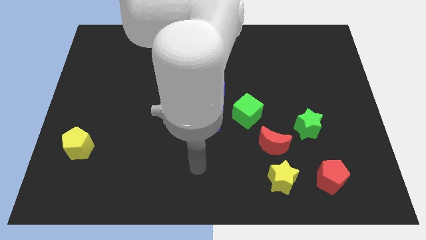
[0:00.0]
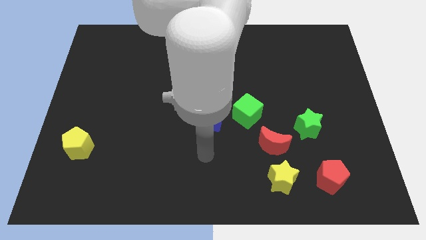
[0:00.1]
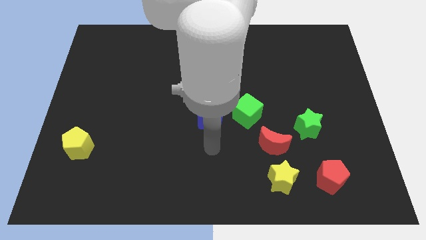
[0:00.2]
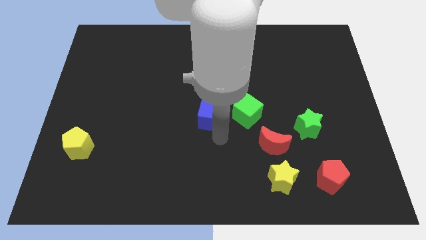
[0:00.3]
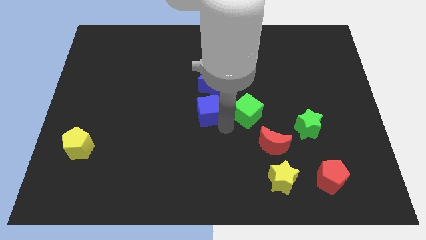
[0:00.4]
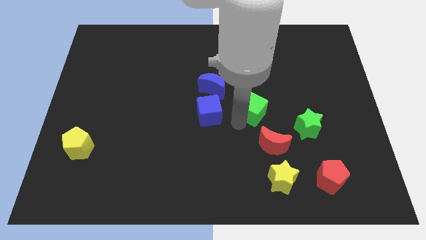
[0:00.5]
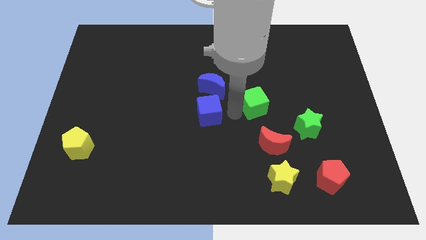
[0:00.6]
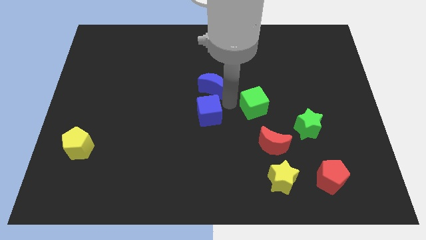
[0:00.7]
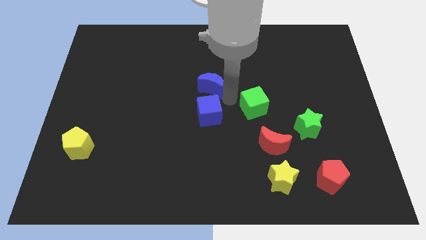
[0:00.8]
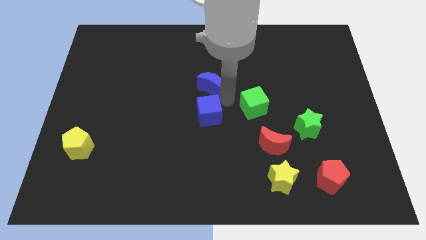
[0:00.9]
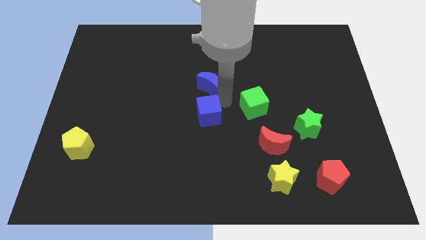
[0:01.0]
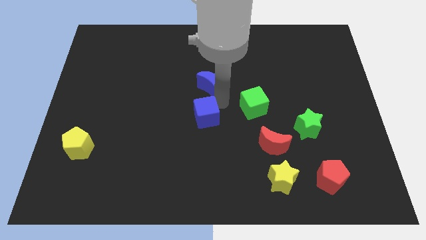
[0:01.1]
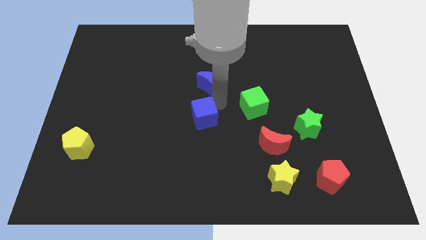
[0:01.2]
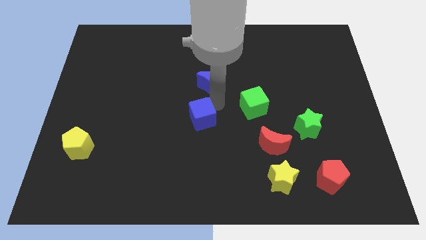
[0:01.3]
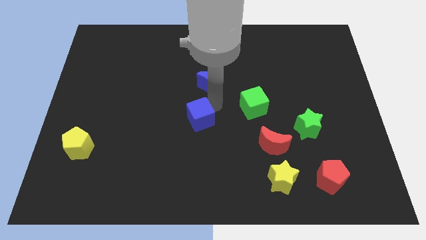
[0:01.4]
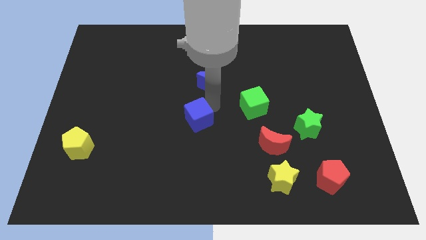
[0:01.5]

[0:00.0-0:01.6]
pull the blue cube apart from the green cube and blue moon

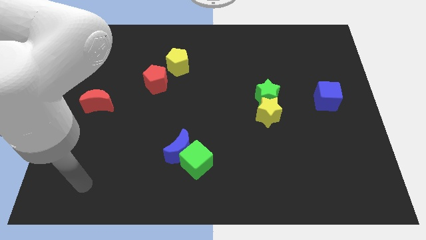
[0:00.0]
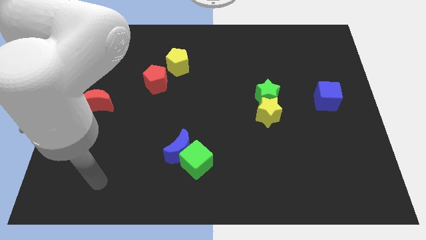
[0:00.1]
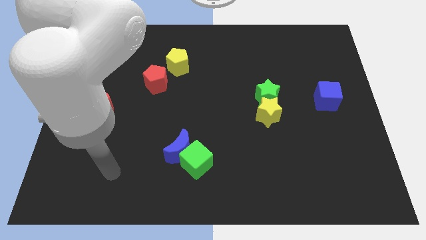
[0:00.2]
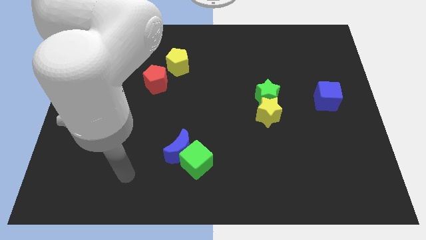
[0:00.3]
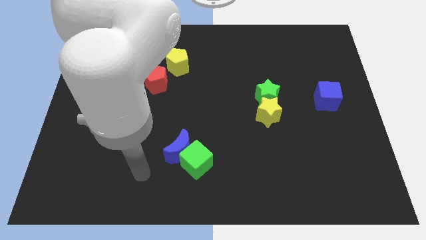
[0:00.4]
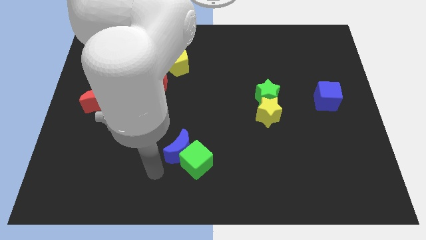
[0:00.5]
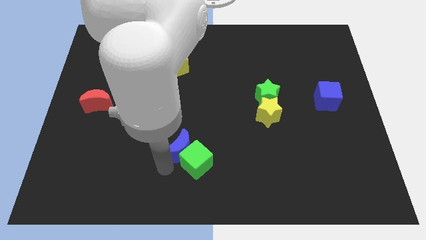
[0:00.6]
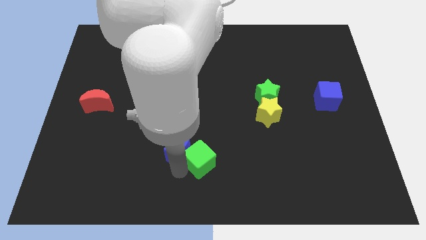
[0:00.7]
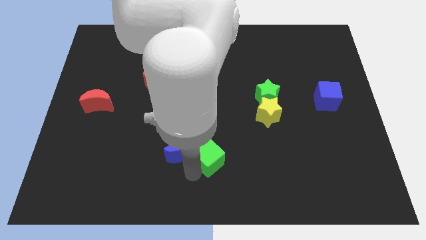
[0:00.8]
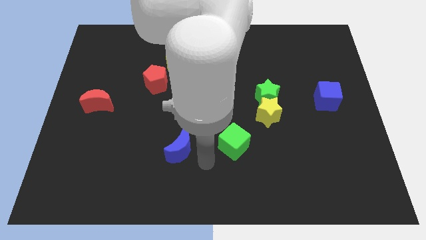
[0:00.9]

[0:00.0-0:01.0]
move the blue moon away from the green cube

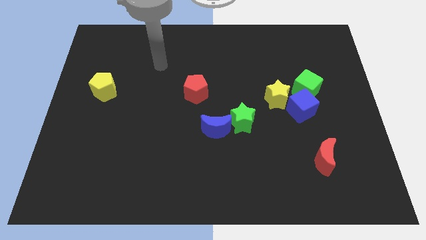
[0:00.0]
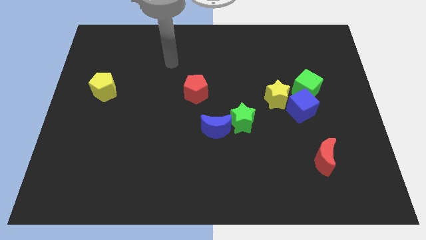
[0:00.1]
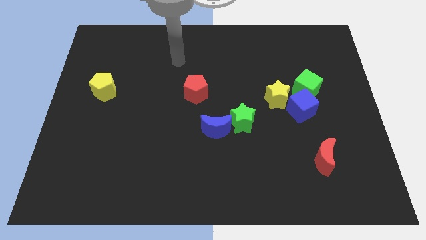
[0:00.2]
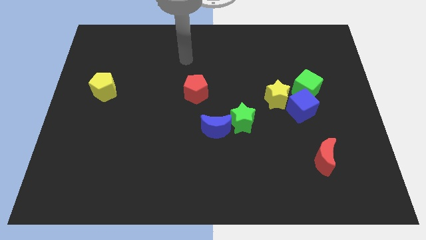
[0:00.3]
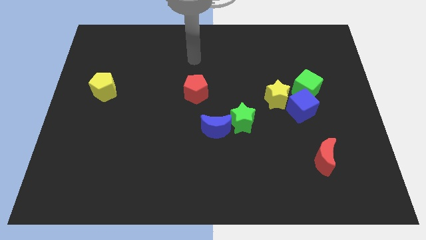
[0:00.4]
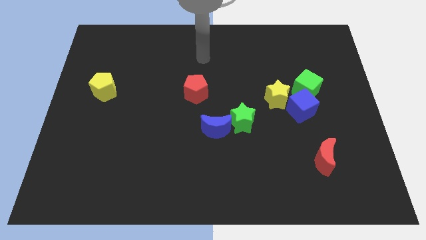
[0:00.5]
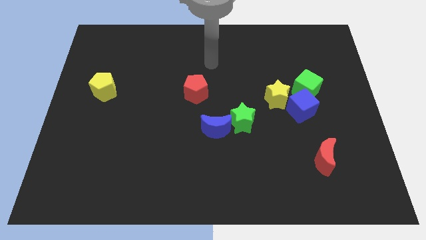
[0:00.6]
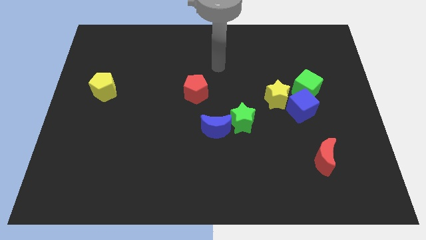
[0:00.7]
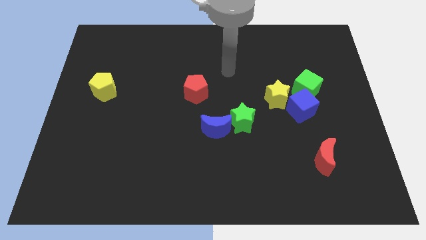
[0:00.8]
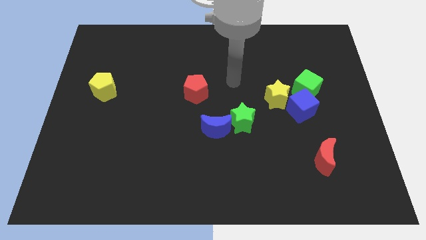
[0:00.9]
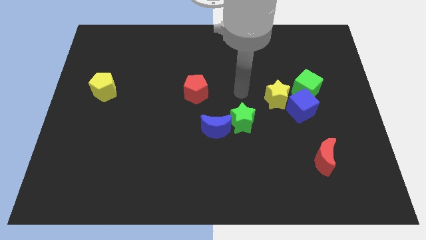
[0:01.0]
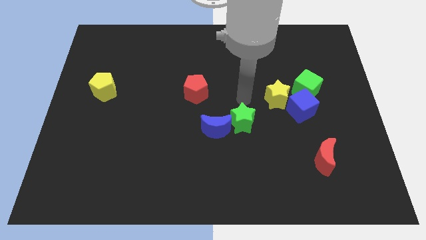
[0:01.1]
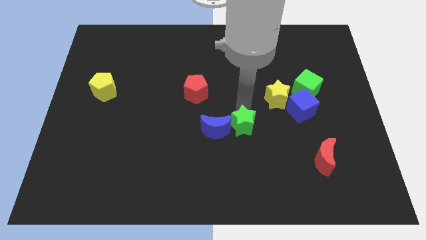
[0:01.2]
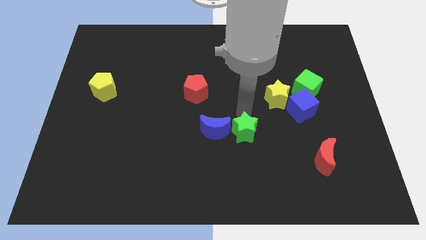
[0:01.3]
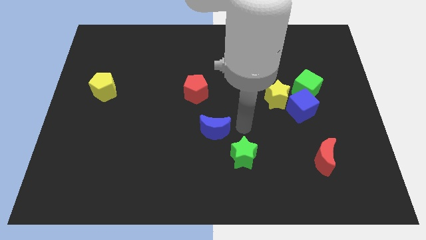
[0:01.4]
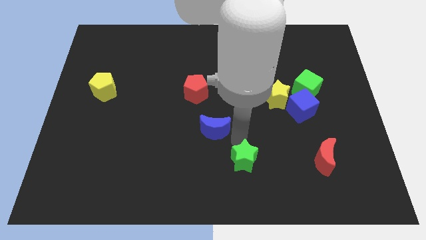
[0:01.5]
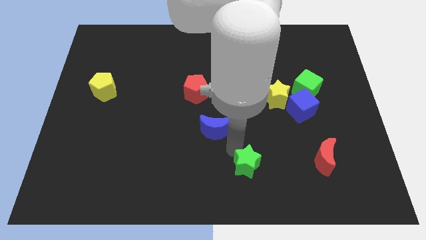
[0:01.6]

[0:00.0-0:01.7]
pull the blue moon apart from the green star

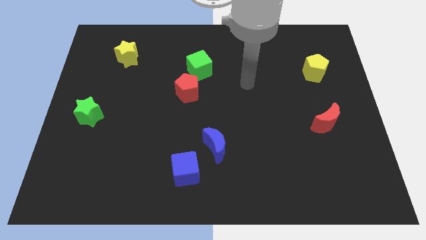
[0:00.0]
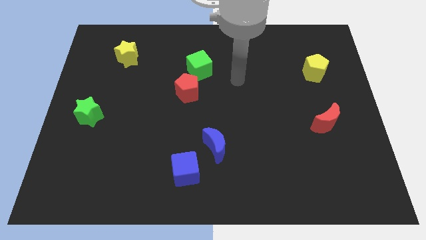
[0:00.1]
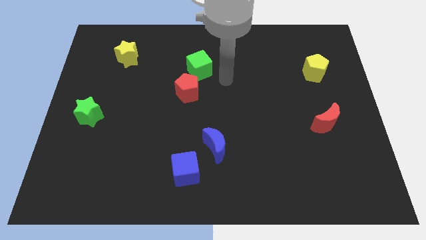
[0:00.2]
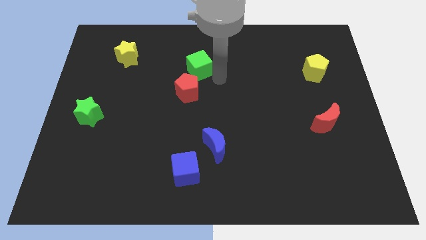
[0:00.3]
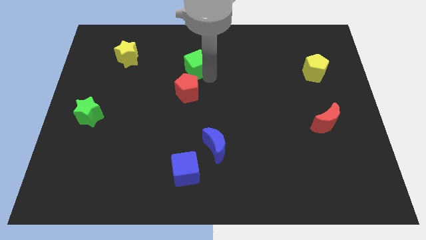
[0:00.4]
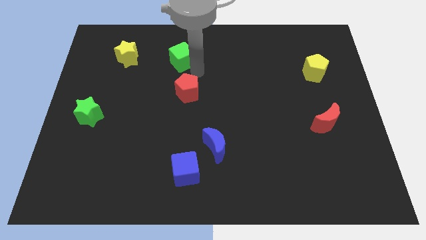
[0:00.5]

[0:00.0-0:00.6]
separate the red pentagon from the green cube

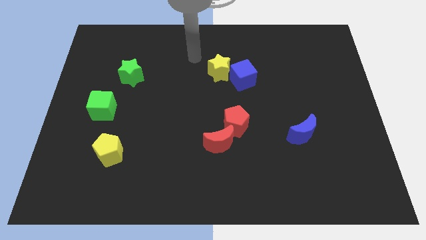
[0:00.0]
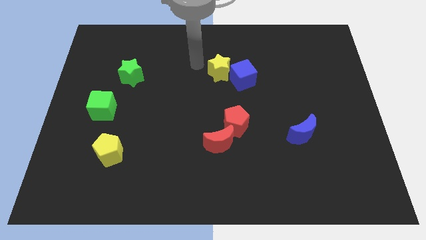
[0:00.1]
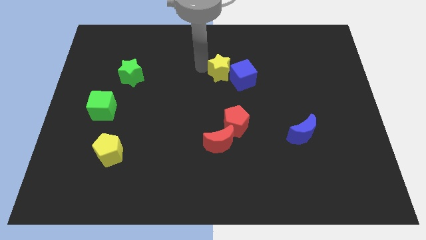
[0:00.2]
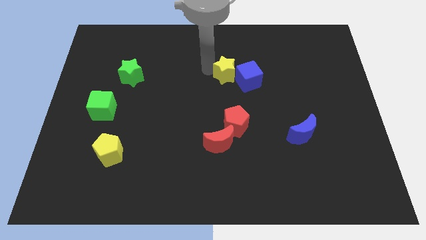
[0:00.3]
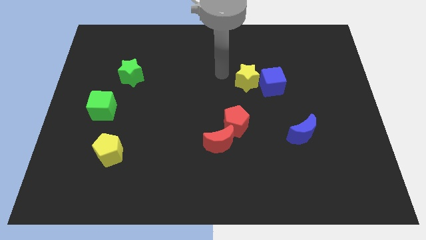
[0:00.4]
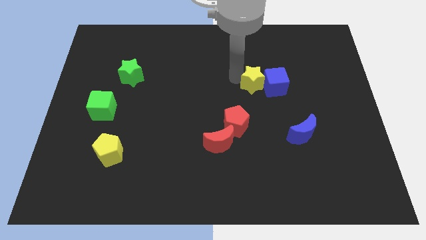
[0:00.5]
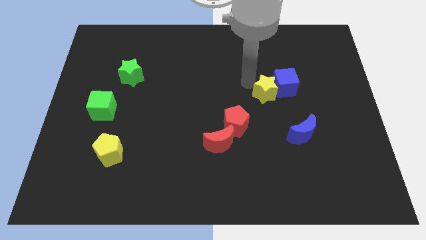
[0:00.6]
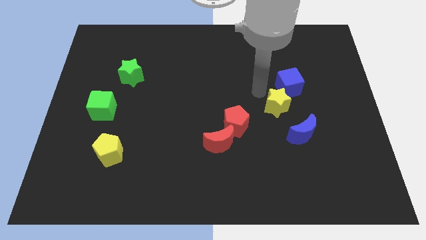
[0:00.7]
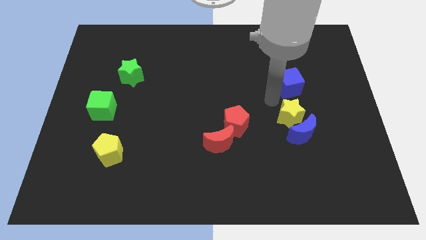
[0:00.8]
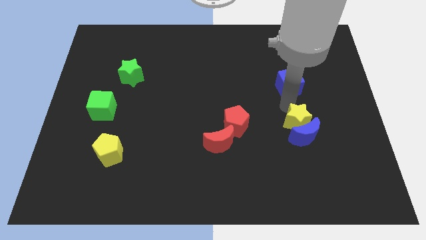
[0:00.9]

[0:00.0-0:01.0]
pull the blue cube apart from the yellow star

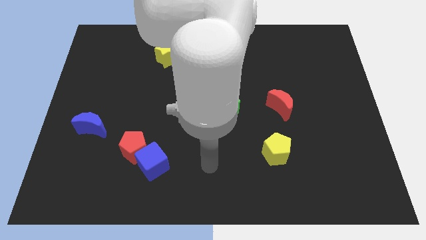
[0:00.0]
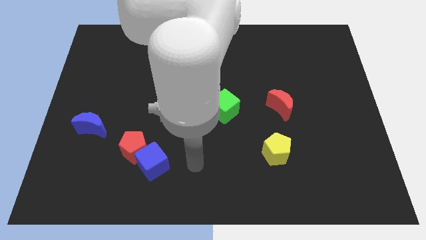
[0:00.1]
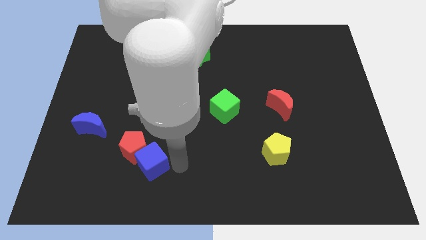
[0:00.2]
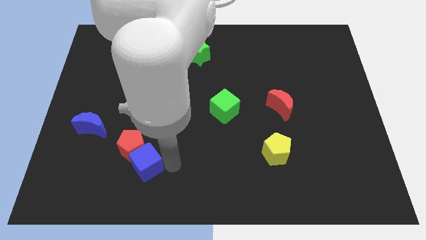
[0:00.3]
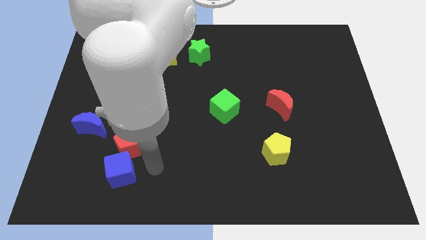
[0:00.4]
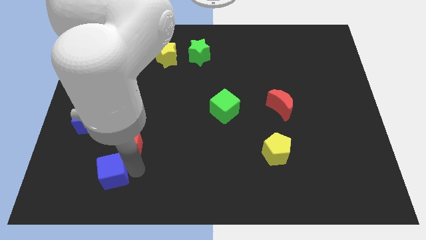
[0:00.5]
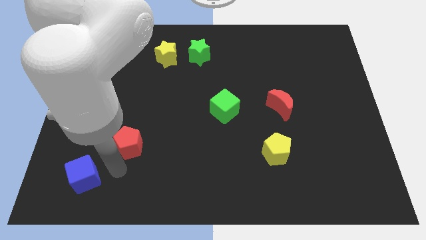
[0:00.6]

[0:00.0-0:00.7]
pull the red pentagon apart from the blue cube

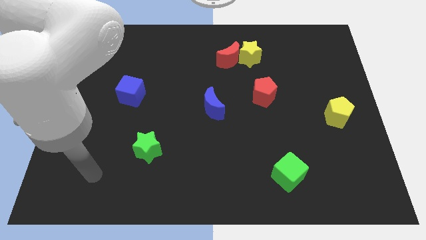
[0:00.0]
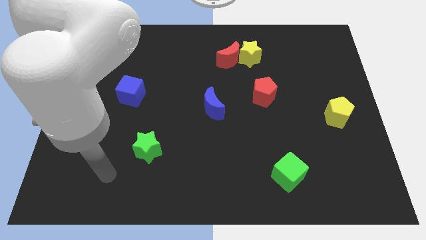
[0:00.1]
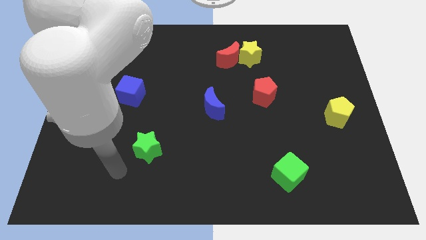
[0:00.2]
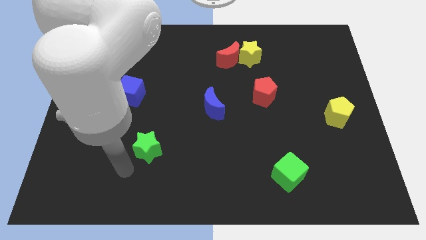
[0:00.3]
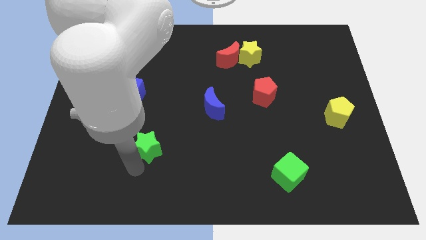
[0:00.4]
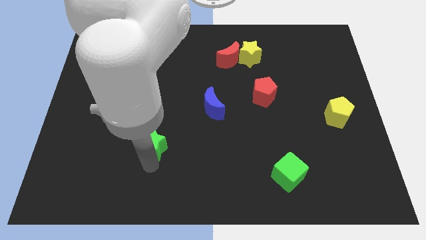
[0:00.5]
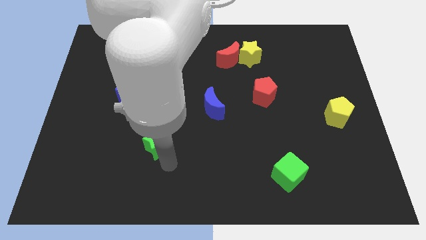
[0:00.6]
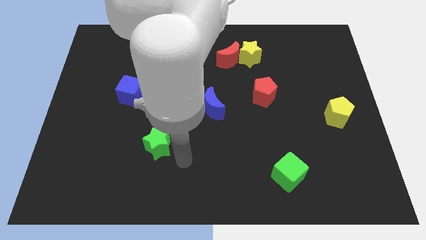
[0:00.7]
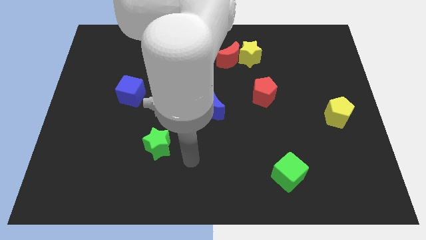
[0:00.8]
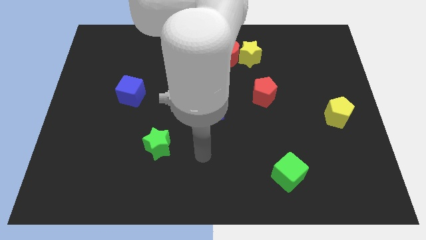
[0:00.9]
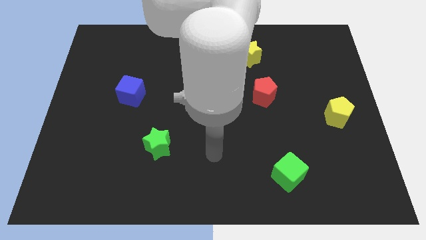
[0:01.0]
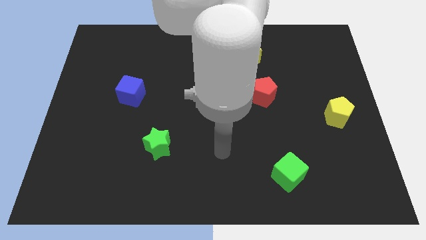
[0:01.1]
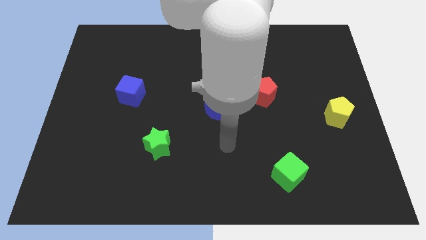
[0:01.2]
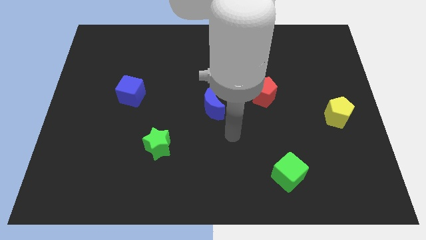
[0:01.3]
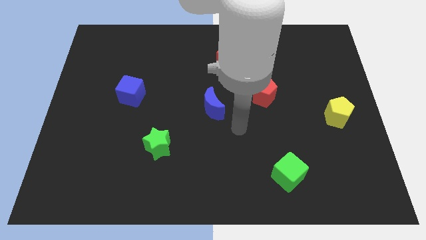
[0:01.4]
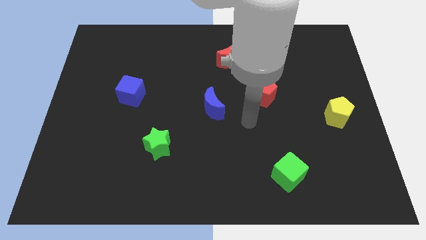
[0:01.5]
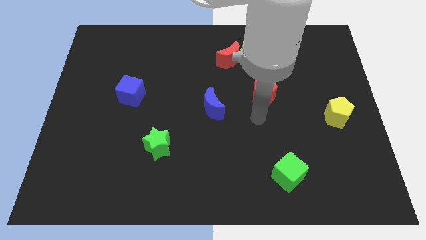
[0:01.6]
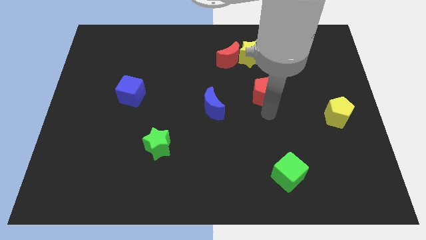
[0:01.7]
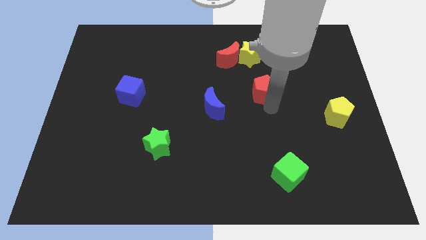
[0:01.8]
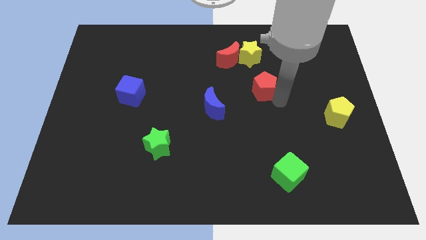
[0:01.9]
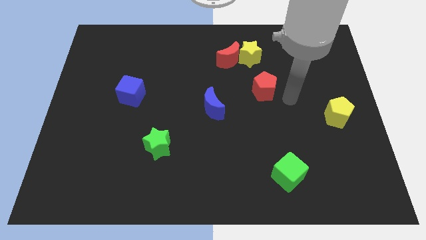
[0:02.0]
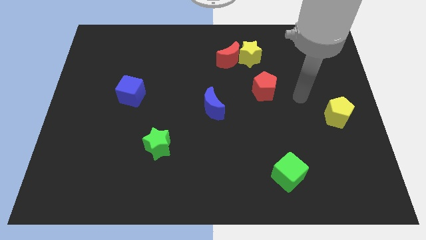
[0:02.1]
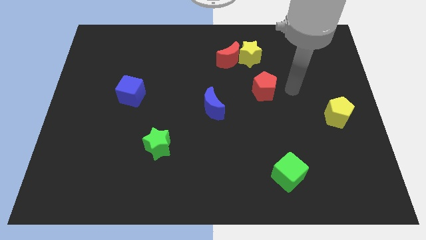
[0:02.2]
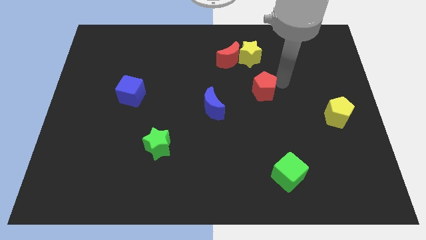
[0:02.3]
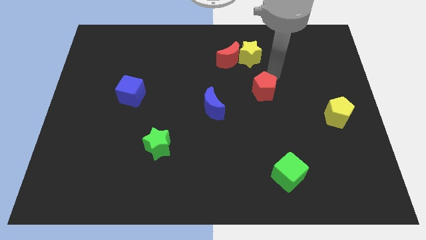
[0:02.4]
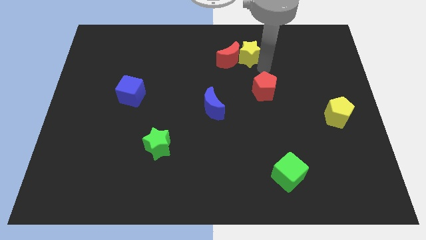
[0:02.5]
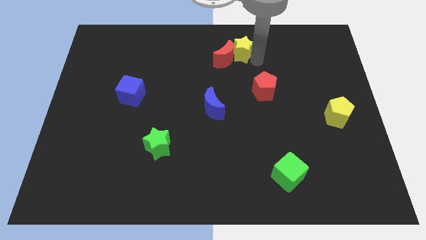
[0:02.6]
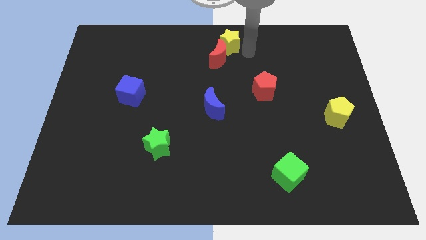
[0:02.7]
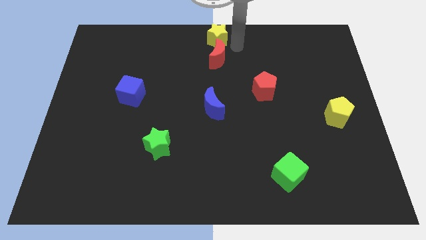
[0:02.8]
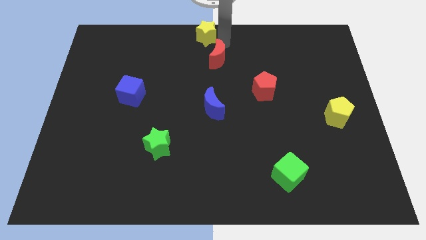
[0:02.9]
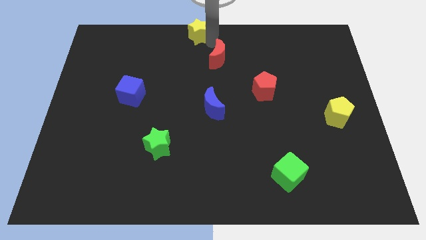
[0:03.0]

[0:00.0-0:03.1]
move the red moon away from the yellow star
